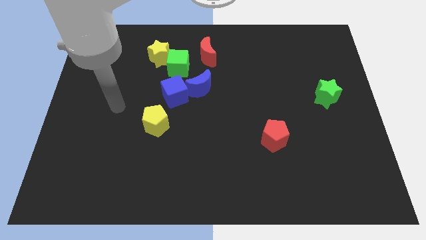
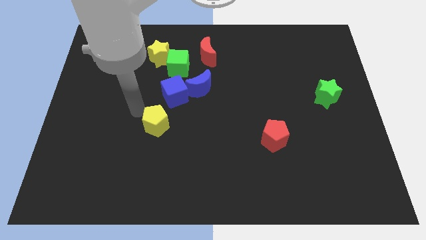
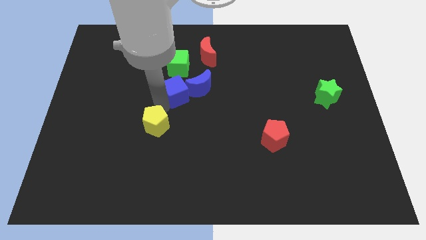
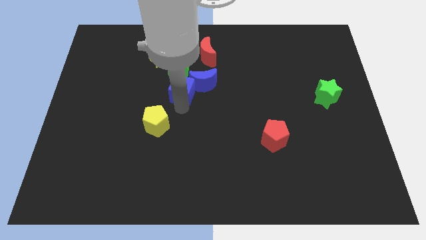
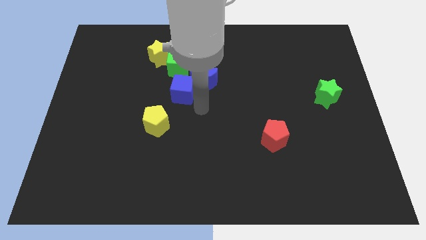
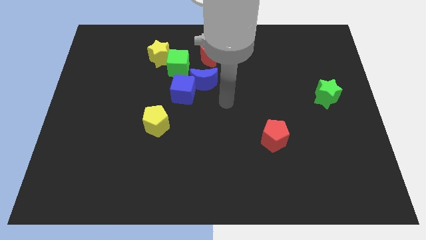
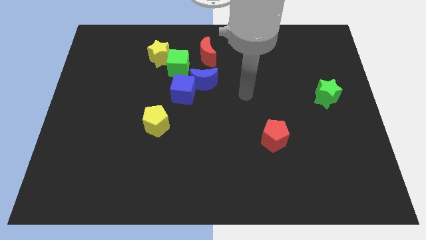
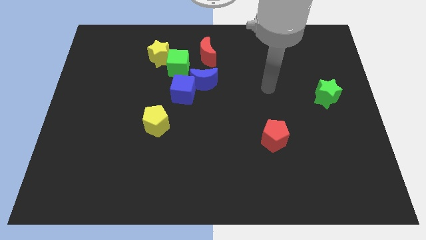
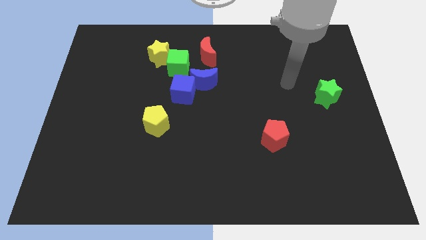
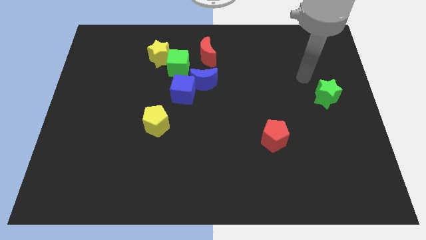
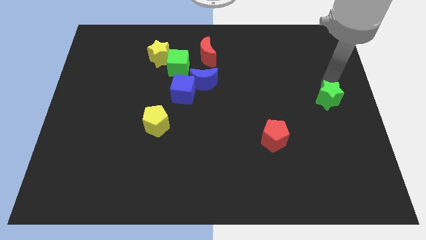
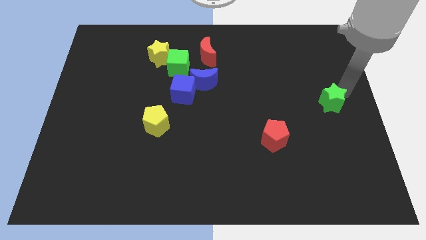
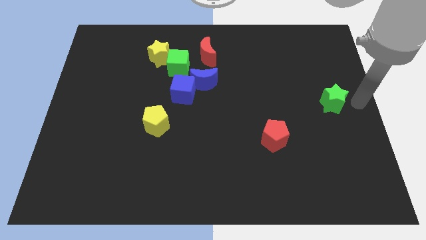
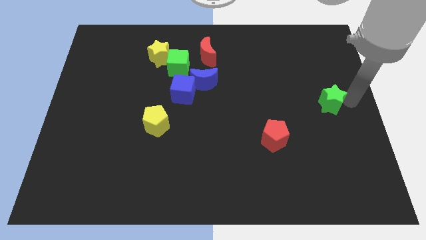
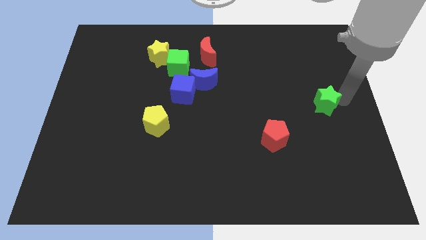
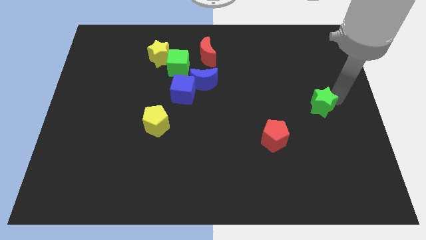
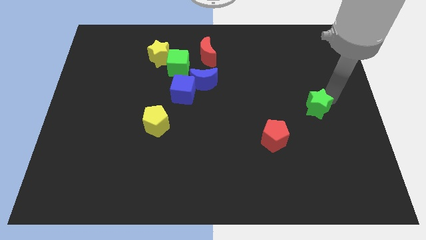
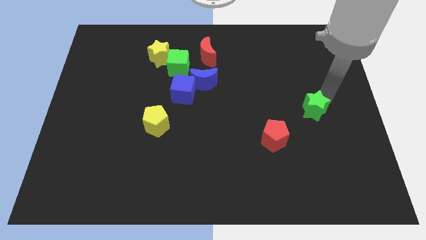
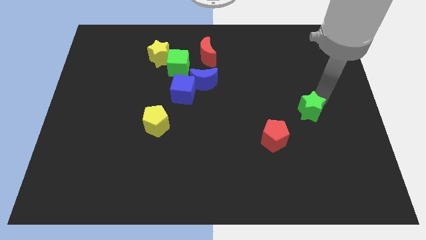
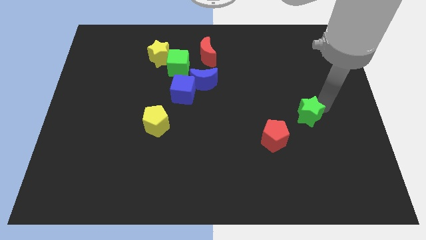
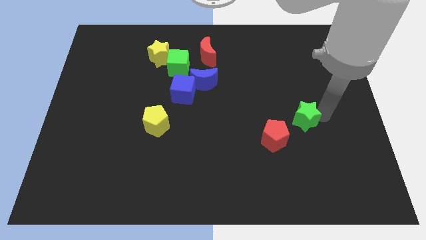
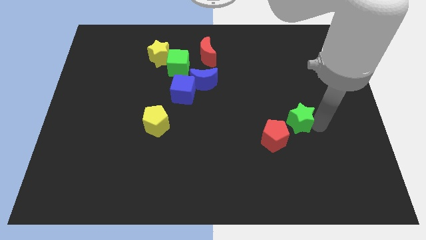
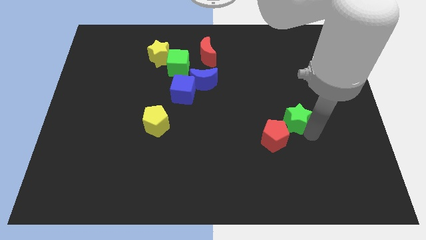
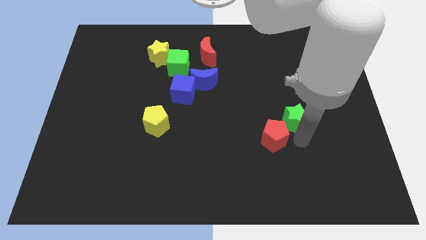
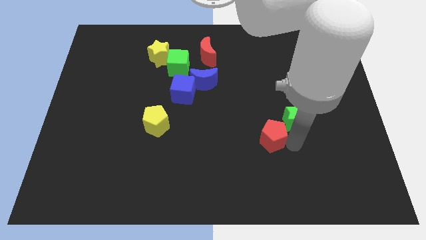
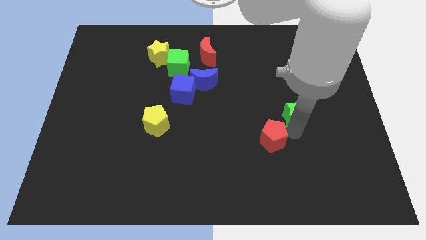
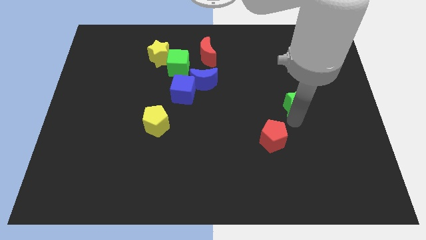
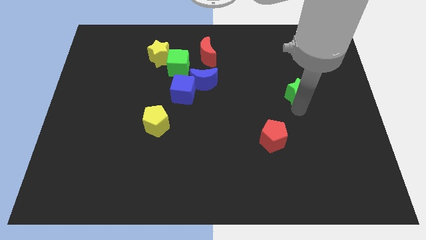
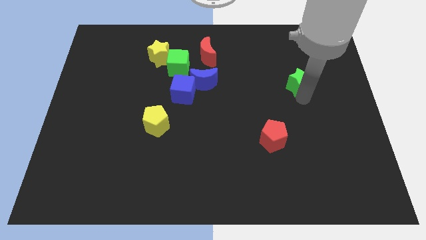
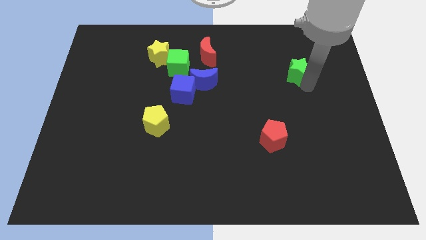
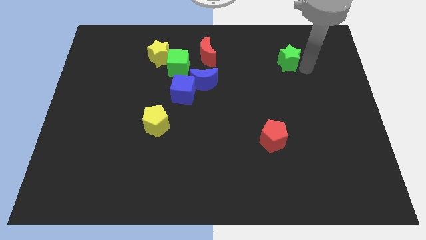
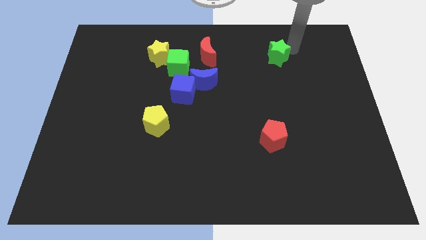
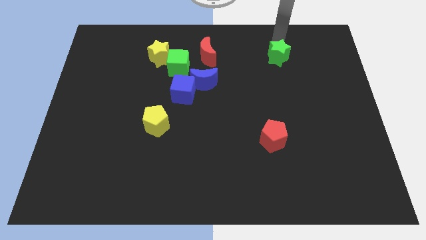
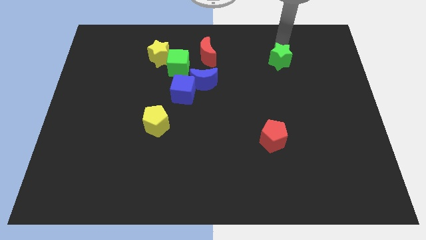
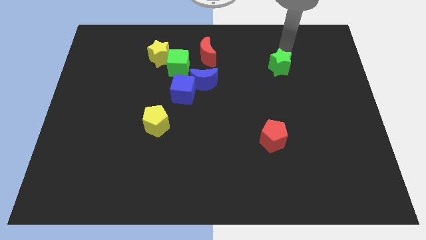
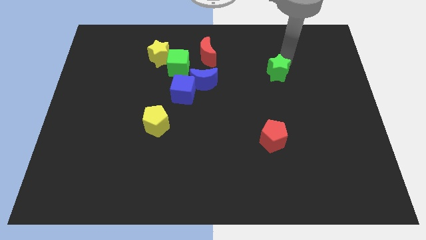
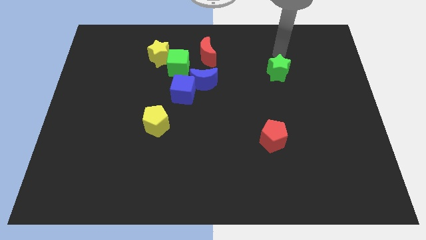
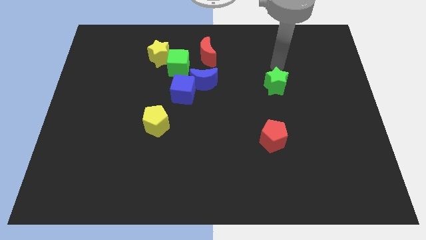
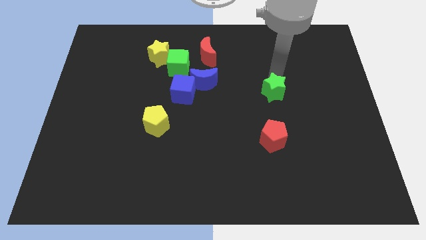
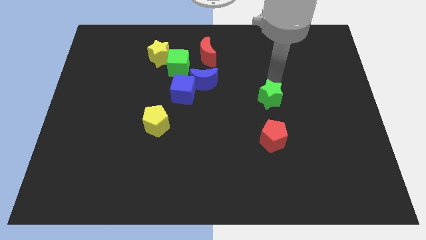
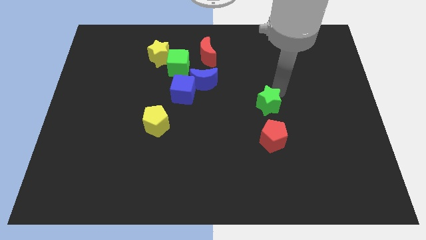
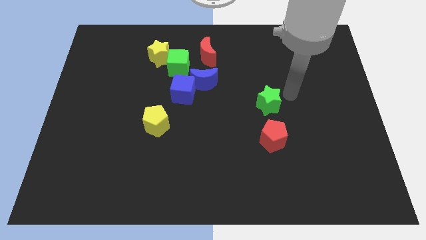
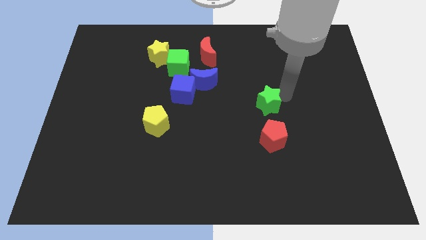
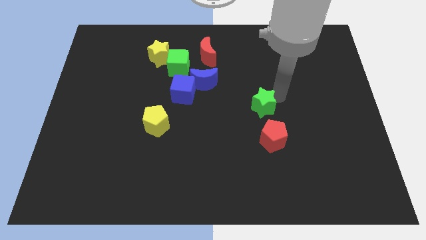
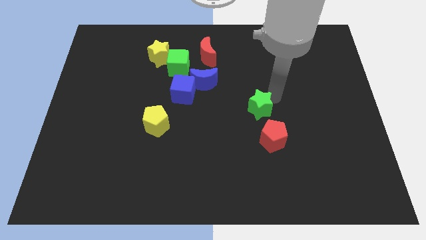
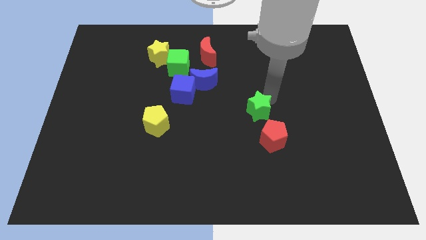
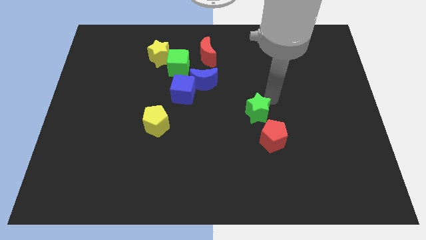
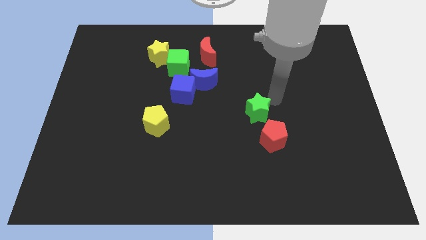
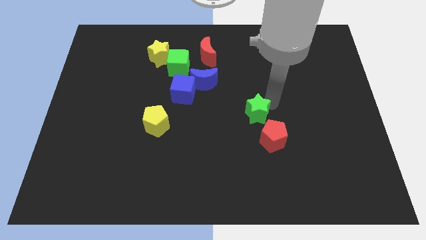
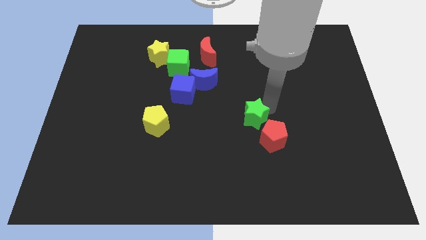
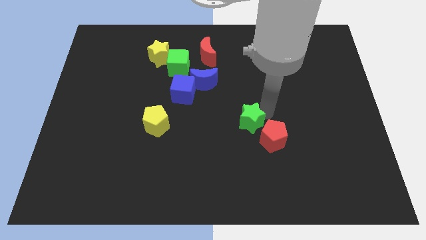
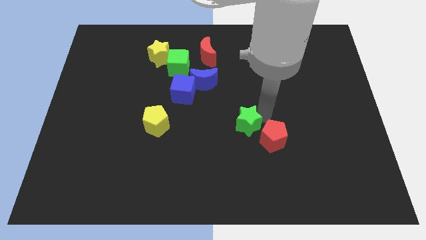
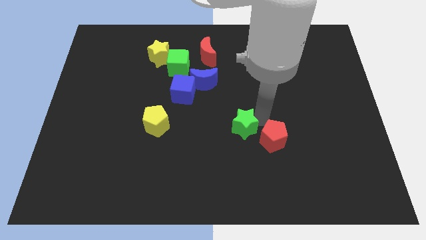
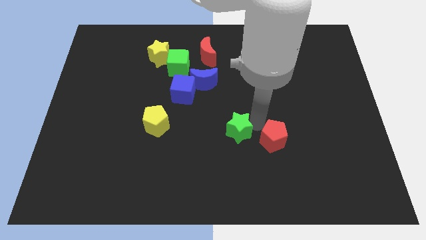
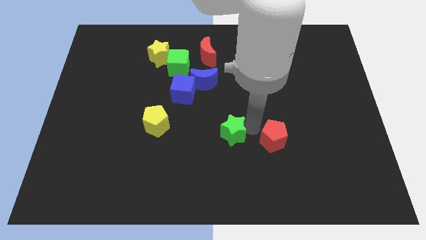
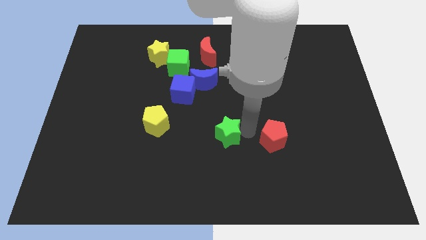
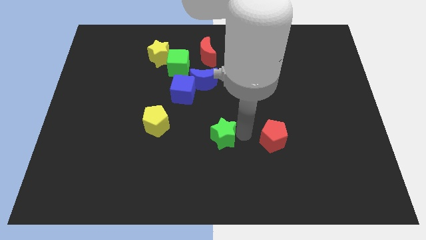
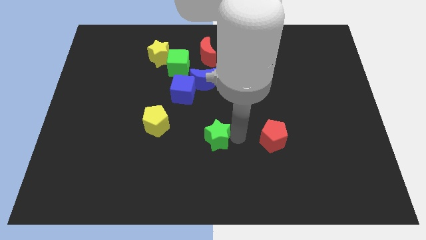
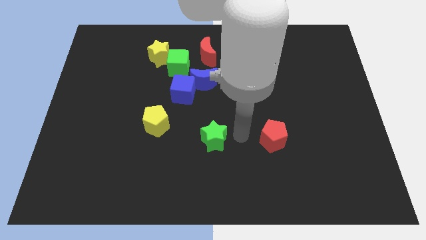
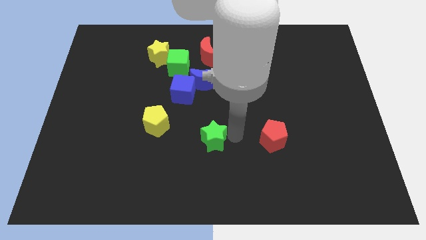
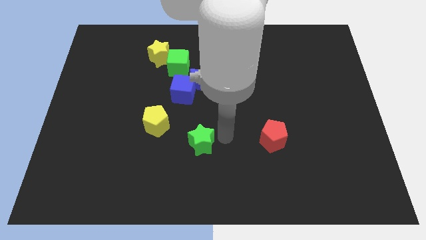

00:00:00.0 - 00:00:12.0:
slide the green star to the bottom right of the yellow pentagon

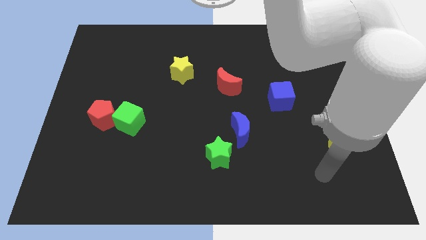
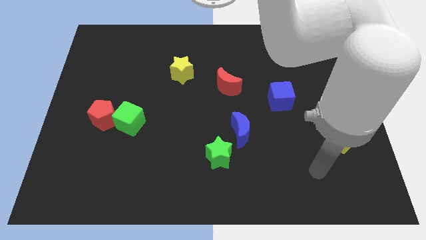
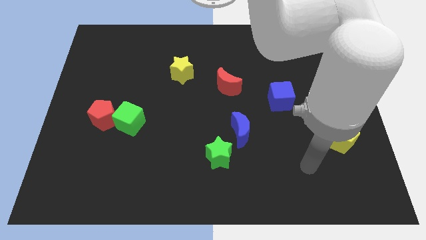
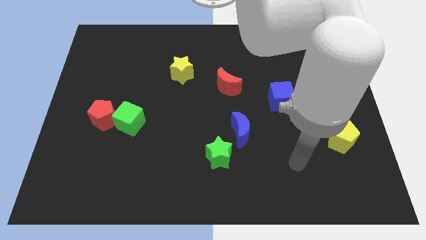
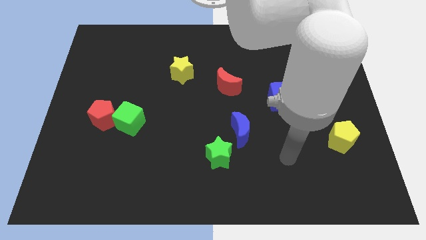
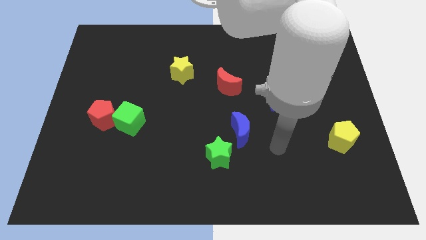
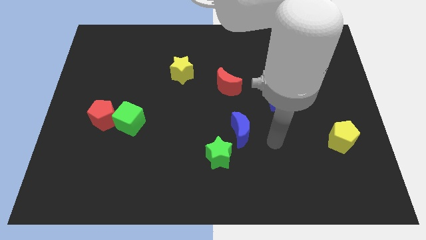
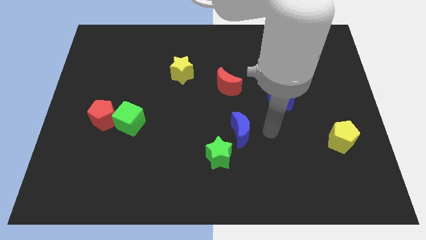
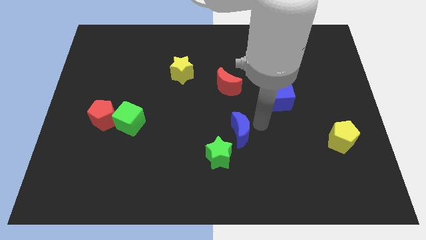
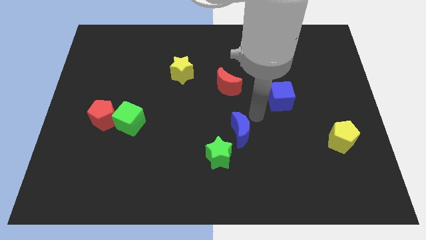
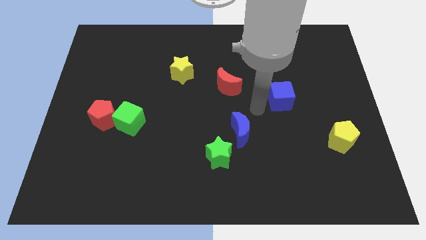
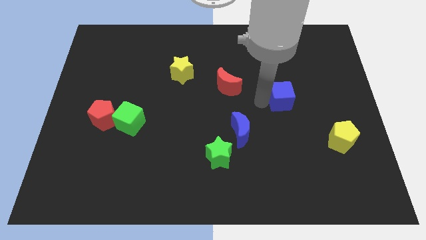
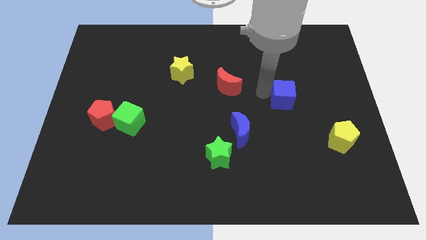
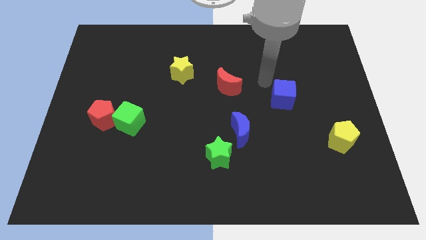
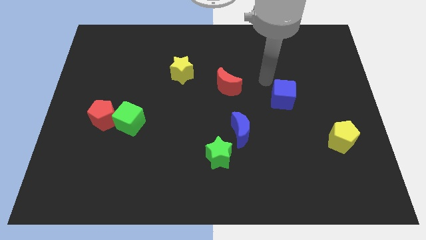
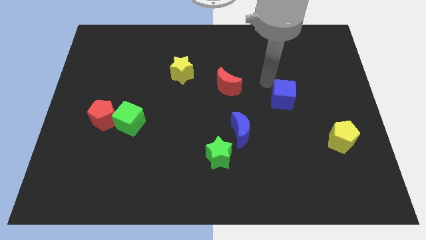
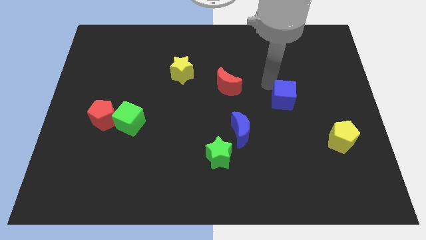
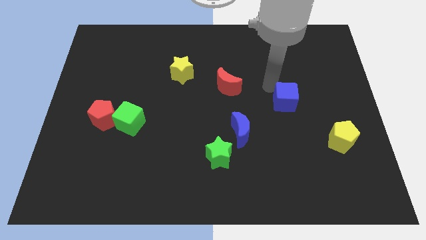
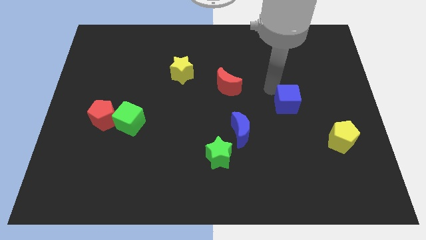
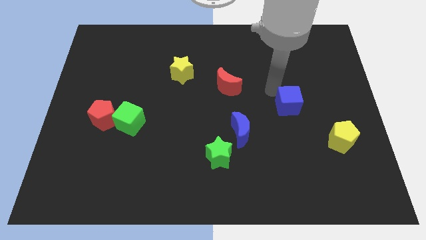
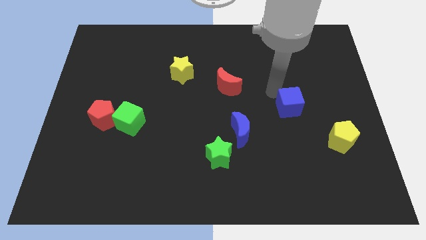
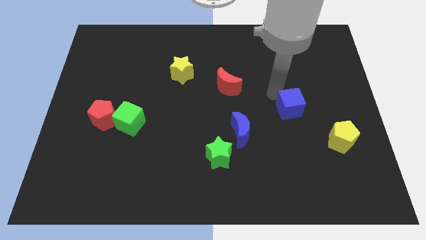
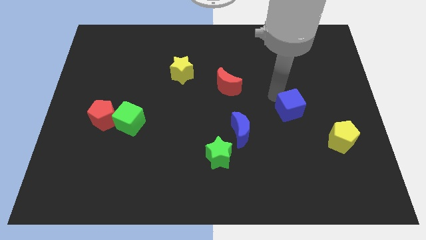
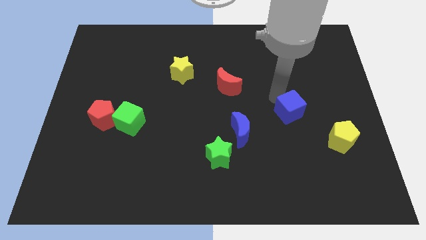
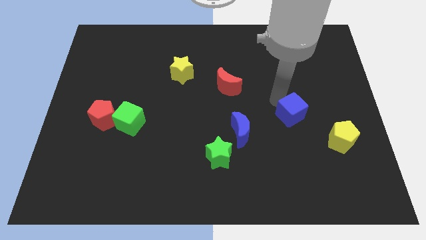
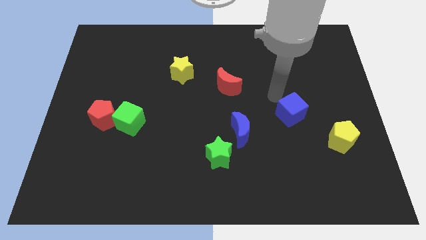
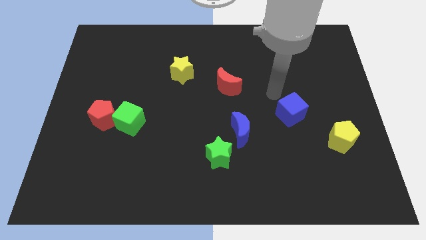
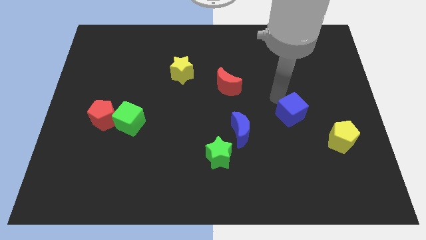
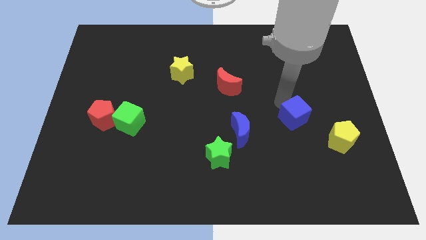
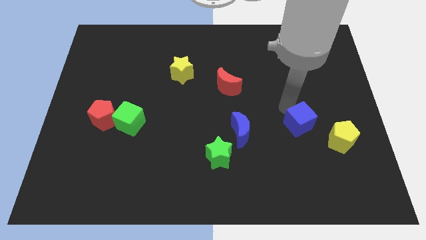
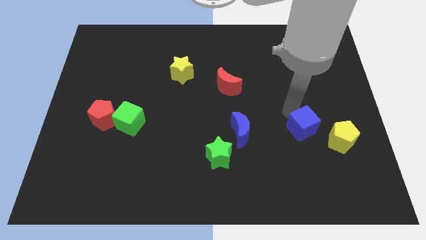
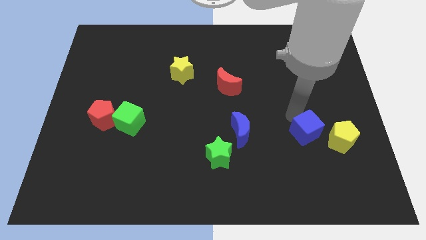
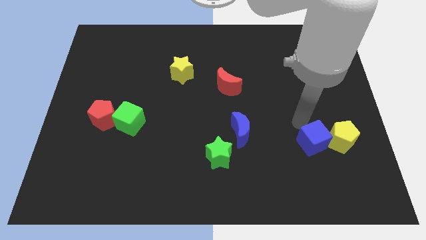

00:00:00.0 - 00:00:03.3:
slide the blue cube to the bottom left of the yellow pentagon
